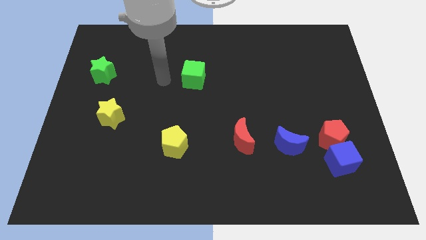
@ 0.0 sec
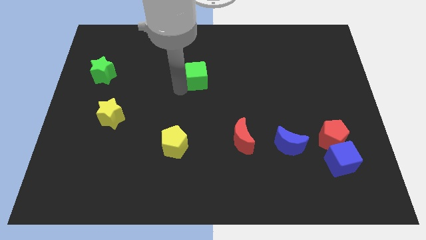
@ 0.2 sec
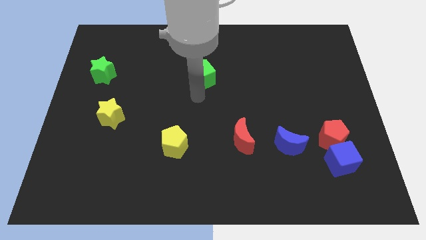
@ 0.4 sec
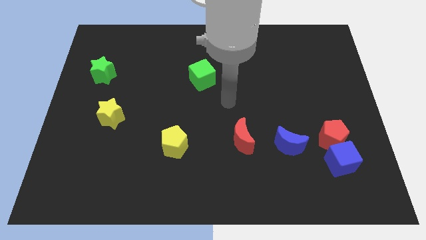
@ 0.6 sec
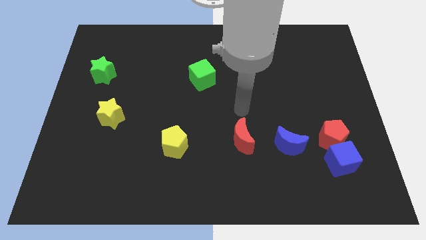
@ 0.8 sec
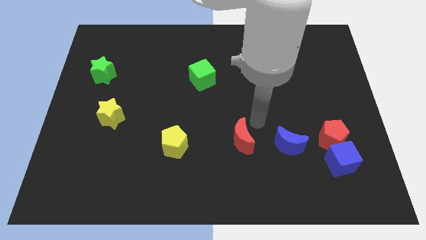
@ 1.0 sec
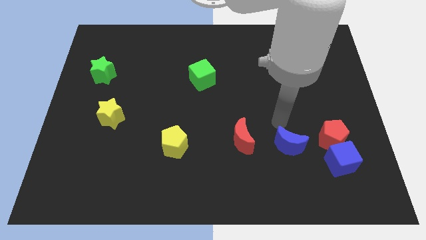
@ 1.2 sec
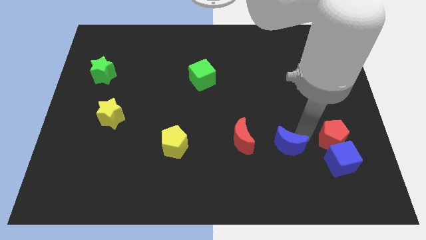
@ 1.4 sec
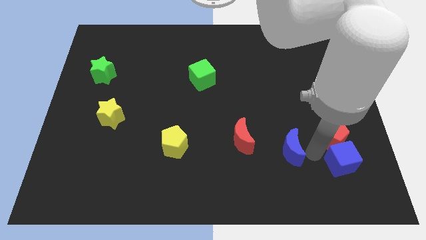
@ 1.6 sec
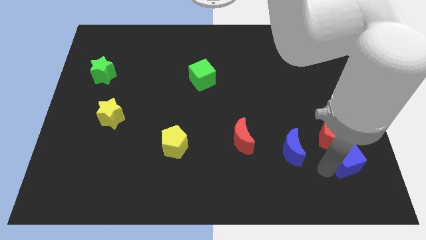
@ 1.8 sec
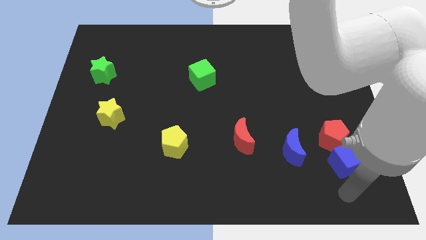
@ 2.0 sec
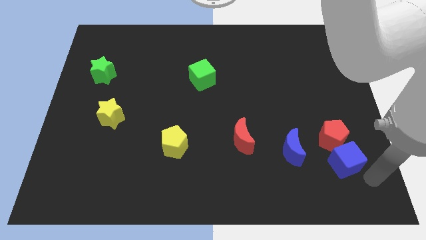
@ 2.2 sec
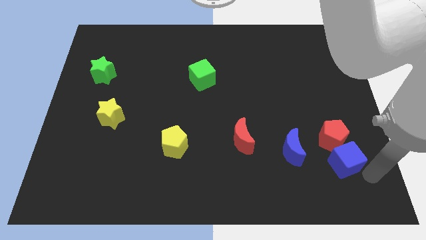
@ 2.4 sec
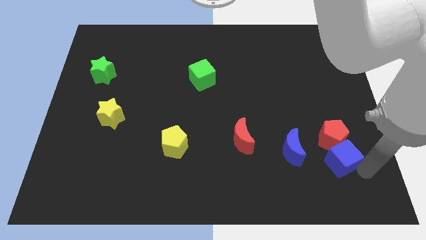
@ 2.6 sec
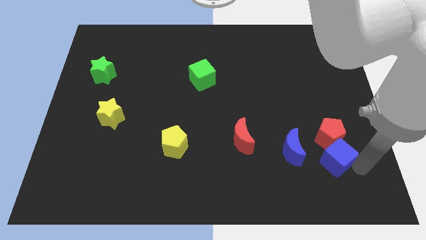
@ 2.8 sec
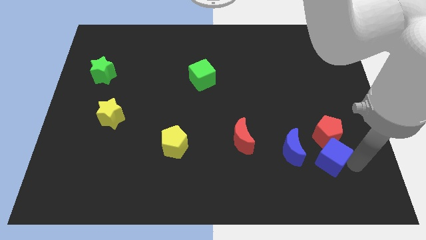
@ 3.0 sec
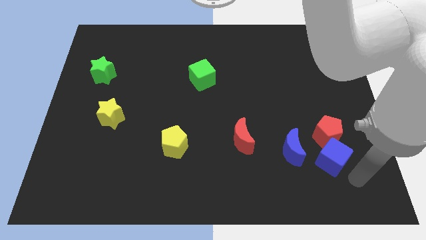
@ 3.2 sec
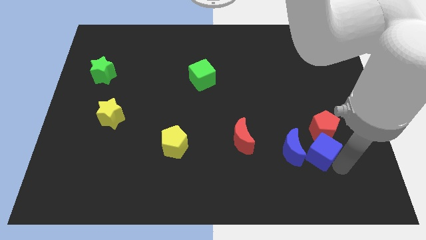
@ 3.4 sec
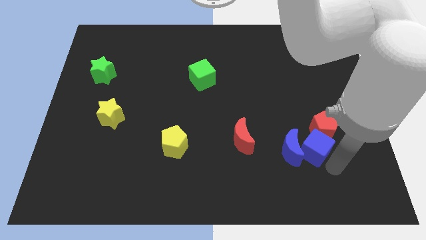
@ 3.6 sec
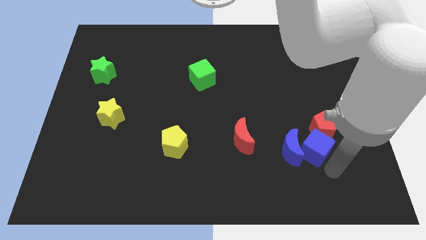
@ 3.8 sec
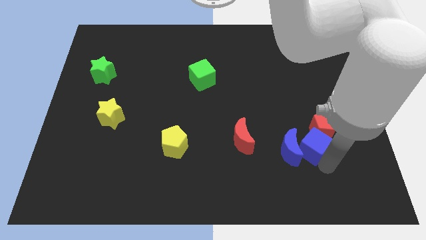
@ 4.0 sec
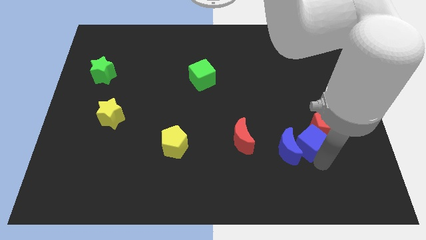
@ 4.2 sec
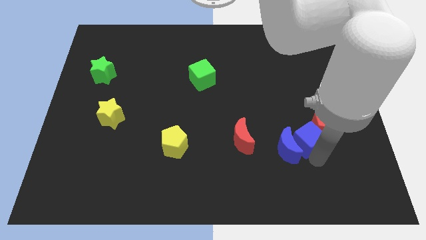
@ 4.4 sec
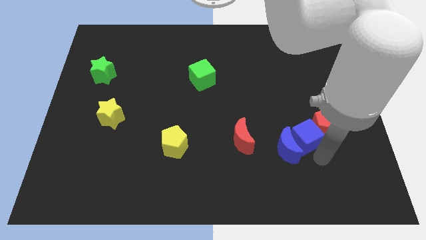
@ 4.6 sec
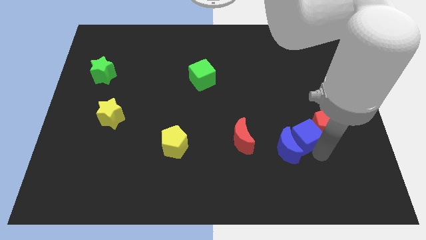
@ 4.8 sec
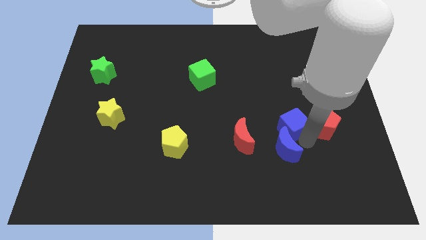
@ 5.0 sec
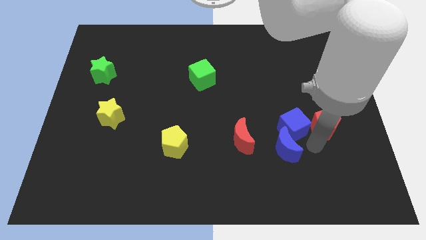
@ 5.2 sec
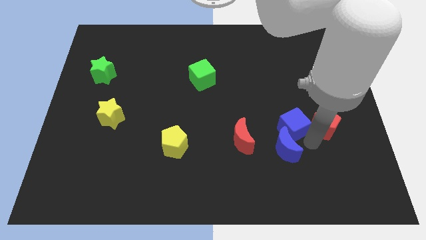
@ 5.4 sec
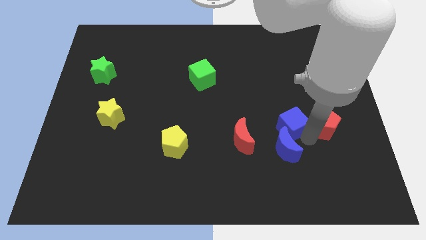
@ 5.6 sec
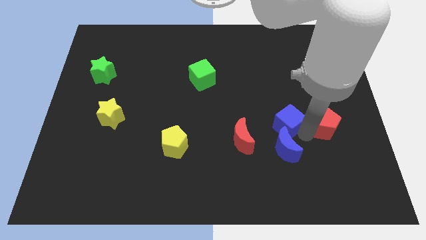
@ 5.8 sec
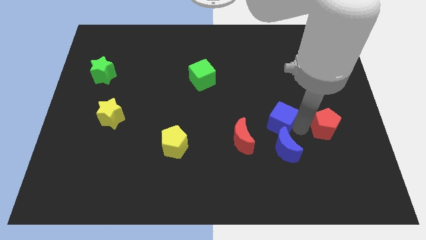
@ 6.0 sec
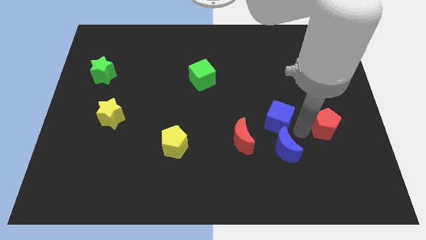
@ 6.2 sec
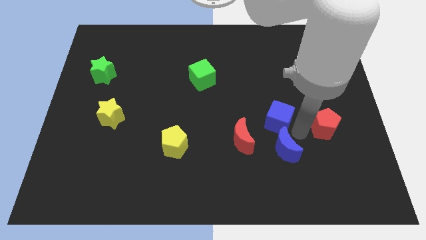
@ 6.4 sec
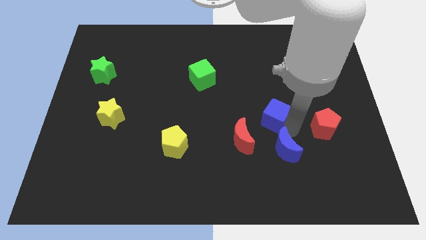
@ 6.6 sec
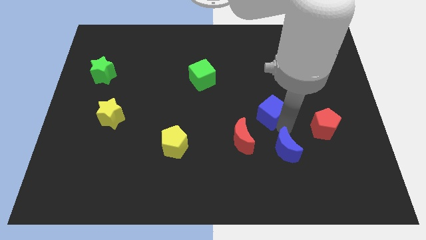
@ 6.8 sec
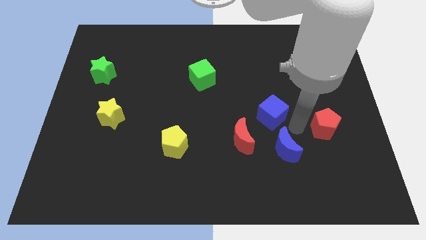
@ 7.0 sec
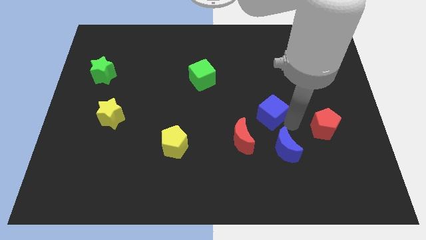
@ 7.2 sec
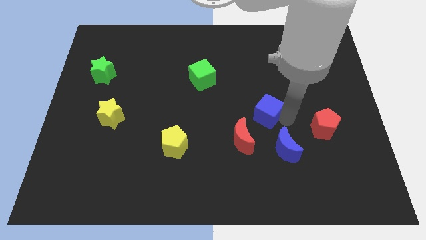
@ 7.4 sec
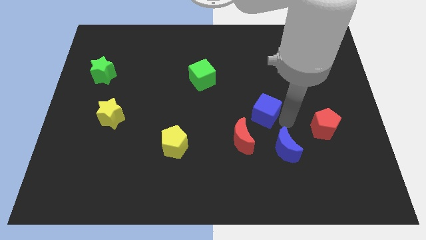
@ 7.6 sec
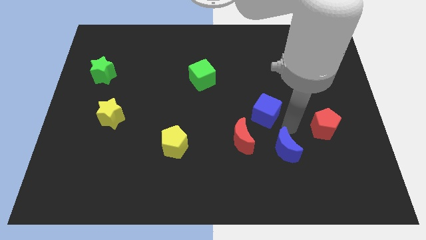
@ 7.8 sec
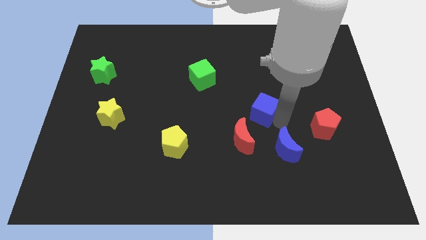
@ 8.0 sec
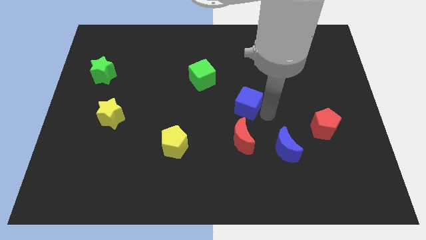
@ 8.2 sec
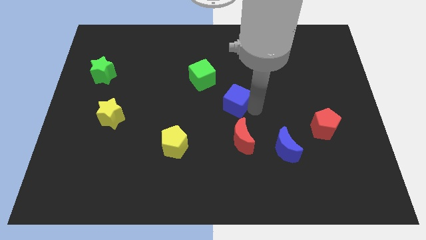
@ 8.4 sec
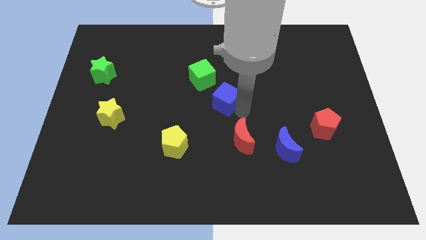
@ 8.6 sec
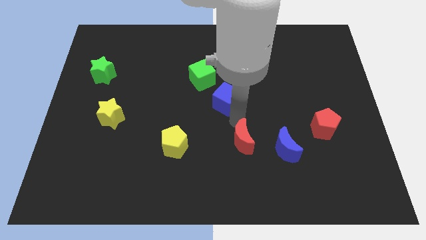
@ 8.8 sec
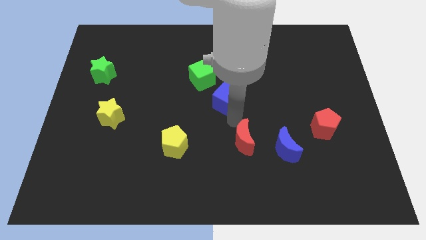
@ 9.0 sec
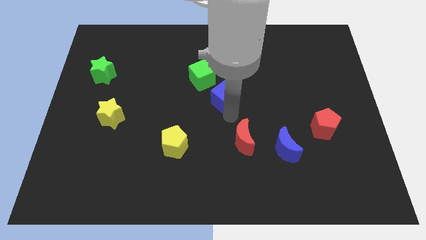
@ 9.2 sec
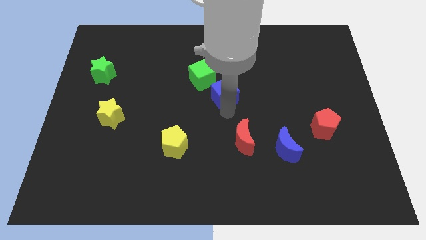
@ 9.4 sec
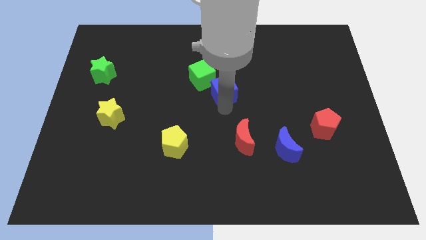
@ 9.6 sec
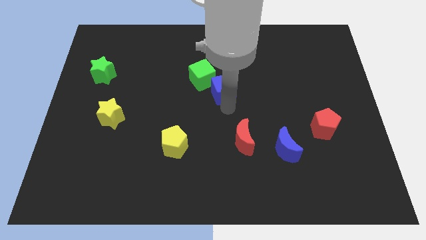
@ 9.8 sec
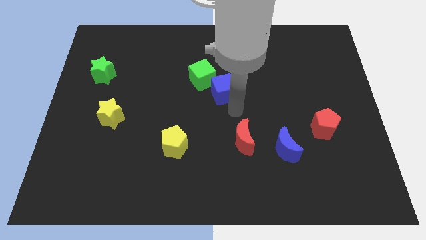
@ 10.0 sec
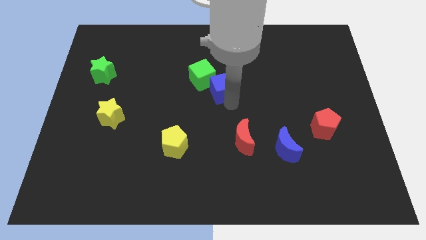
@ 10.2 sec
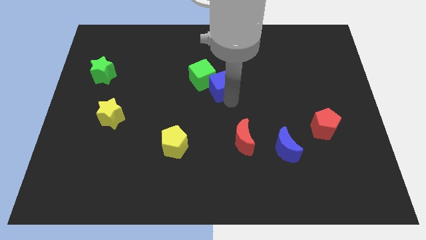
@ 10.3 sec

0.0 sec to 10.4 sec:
put the blue cube next to the green cube

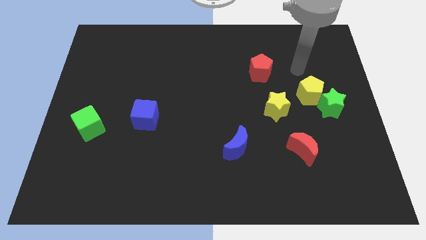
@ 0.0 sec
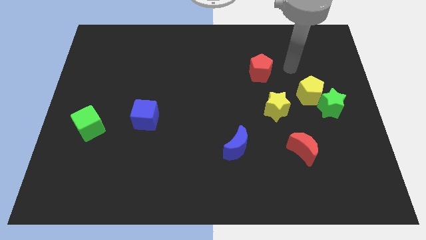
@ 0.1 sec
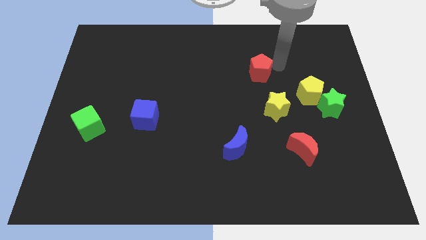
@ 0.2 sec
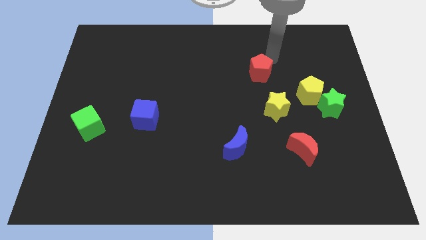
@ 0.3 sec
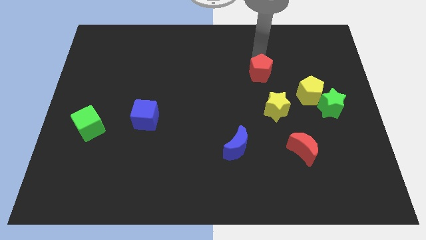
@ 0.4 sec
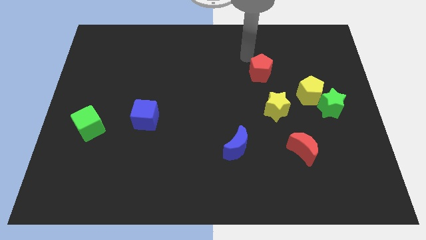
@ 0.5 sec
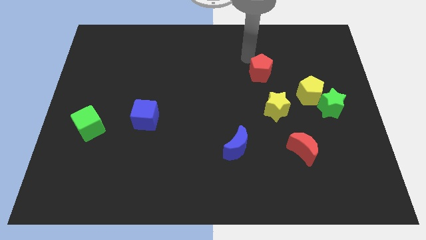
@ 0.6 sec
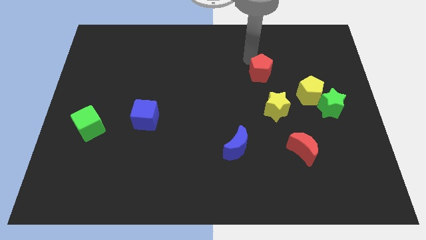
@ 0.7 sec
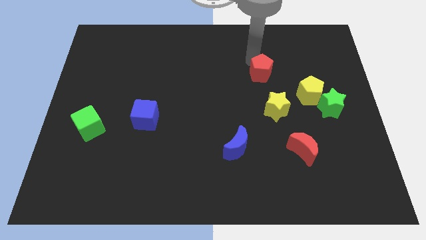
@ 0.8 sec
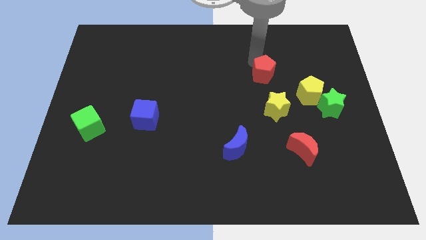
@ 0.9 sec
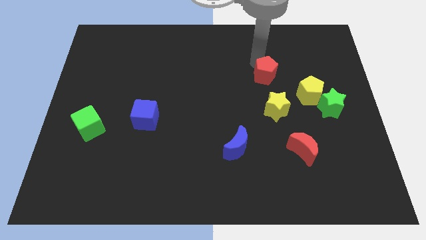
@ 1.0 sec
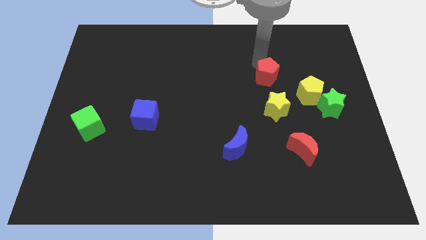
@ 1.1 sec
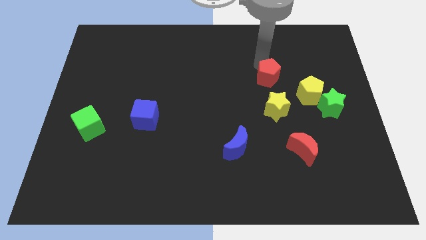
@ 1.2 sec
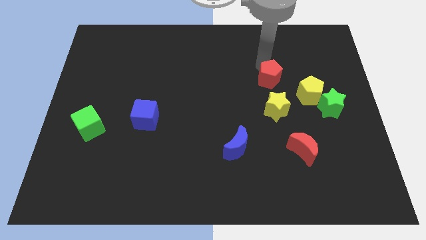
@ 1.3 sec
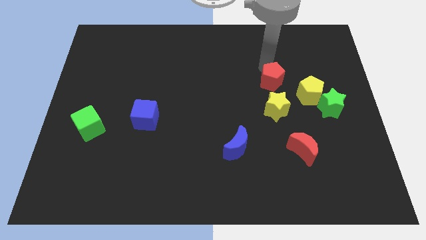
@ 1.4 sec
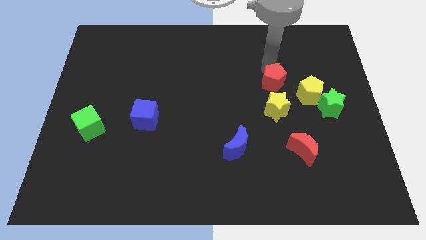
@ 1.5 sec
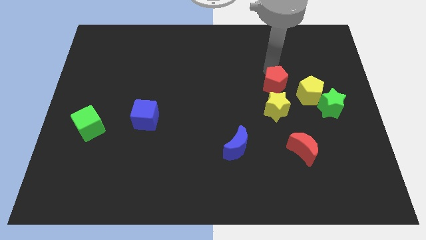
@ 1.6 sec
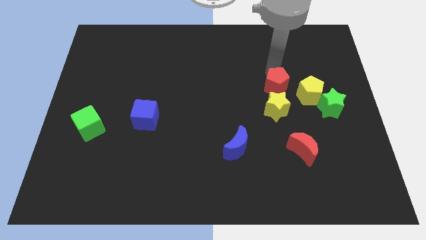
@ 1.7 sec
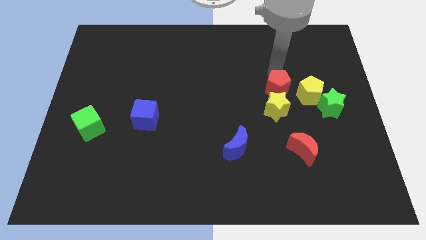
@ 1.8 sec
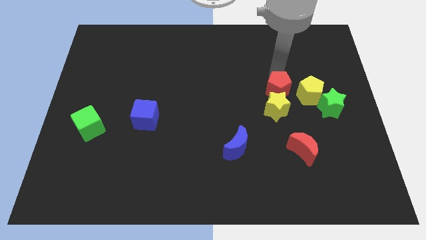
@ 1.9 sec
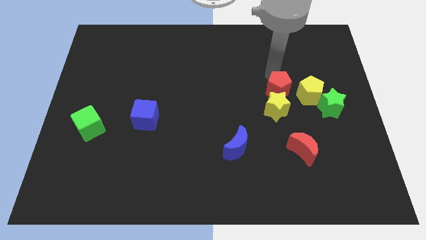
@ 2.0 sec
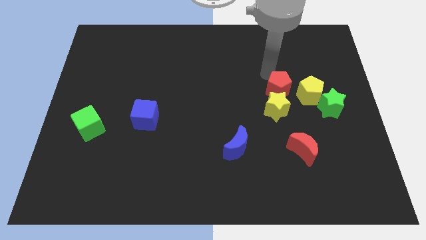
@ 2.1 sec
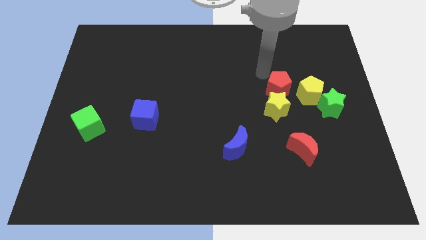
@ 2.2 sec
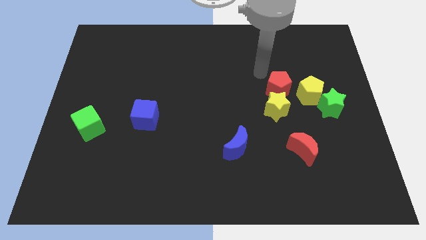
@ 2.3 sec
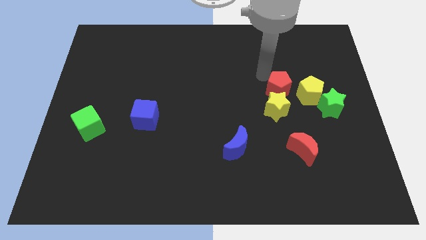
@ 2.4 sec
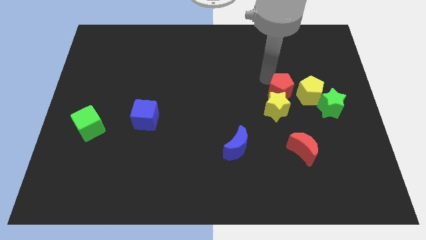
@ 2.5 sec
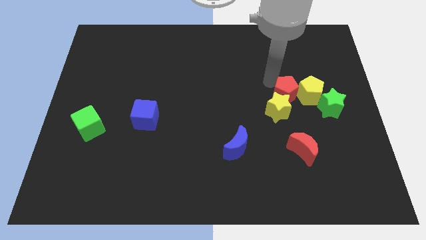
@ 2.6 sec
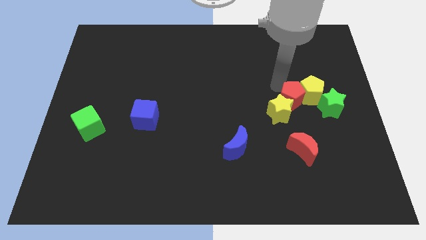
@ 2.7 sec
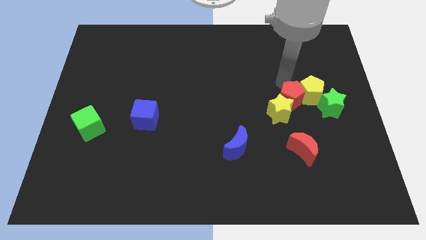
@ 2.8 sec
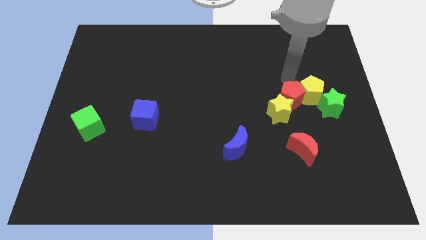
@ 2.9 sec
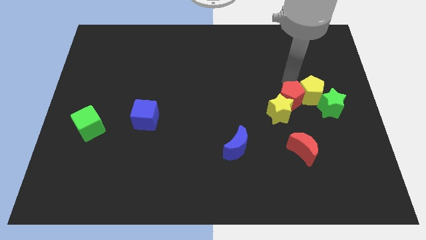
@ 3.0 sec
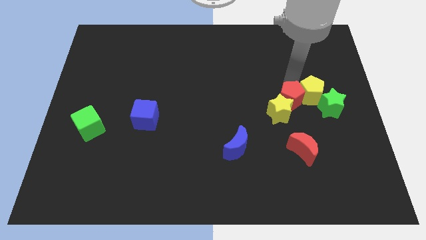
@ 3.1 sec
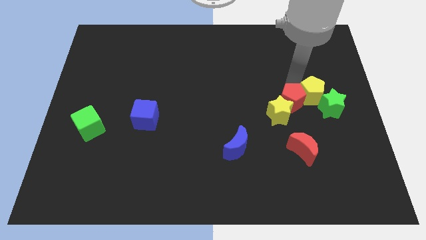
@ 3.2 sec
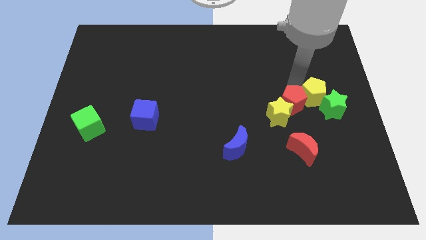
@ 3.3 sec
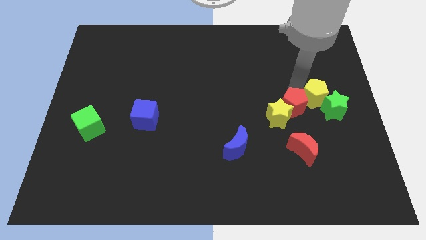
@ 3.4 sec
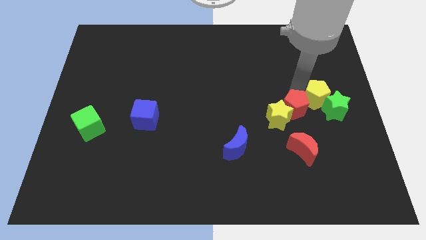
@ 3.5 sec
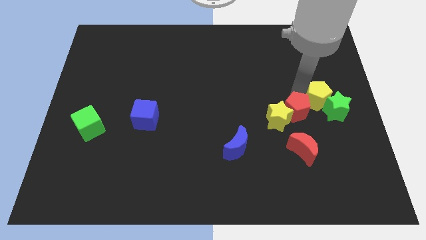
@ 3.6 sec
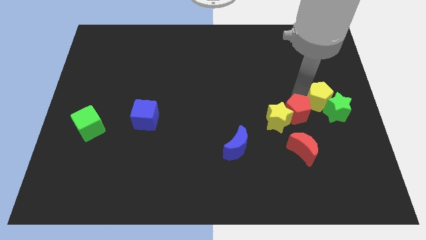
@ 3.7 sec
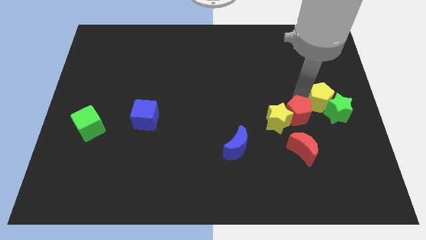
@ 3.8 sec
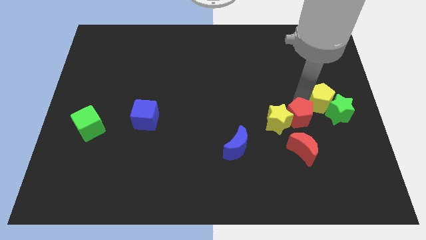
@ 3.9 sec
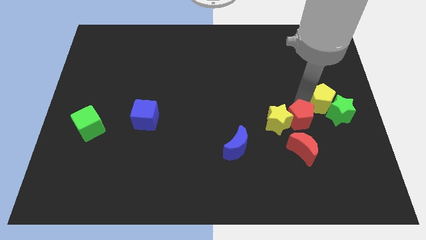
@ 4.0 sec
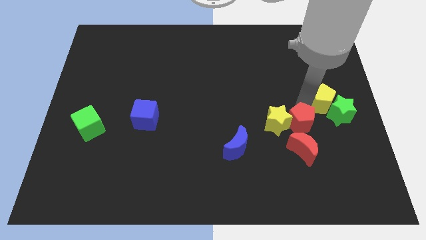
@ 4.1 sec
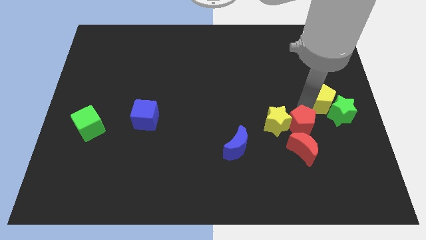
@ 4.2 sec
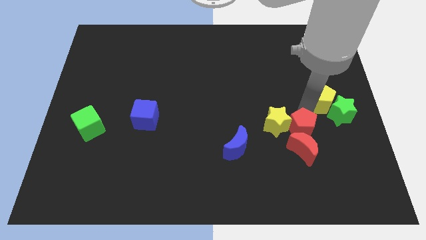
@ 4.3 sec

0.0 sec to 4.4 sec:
put the red pentagon to the red moon
